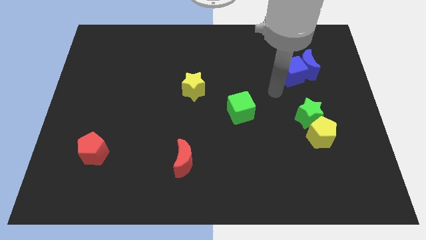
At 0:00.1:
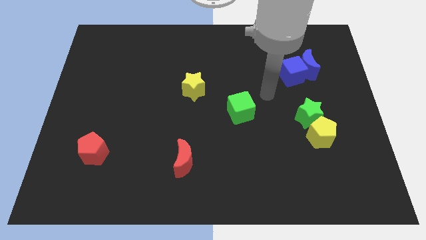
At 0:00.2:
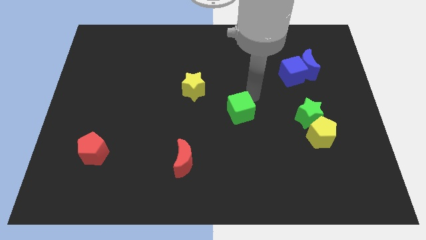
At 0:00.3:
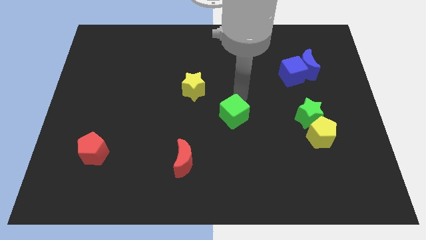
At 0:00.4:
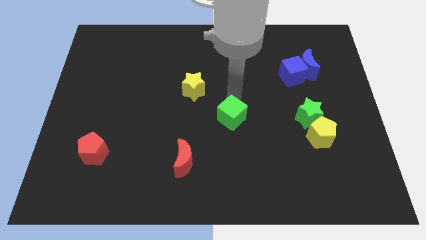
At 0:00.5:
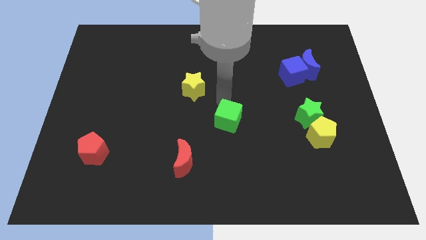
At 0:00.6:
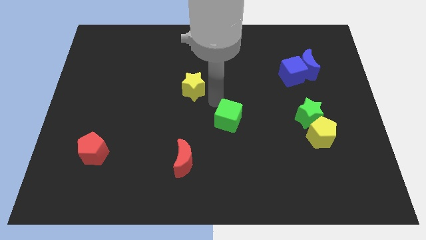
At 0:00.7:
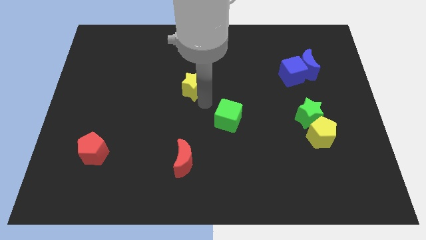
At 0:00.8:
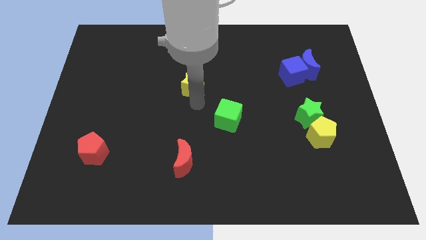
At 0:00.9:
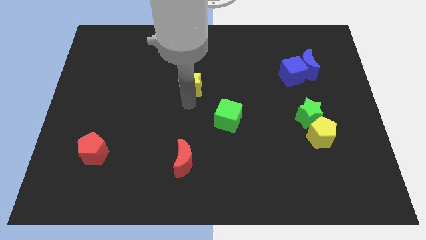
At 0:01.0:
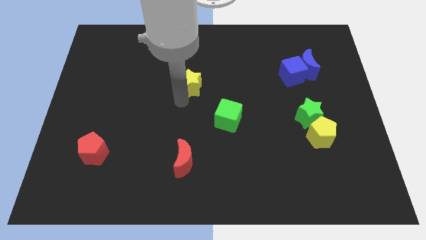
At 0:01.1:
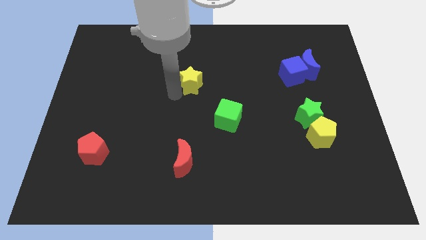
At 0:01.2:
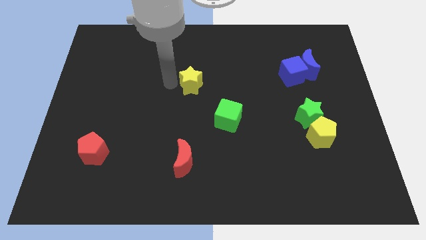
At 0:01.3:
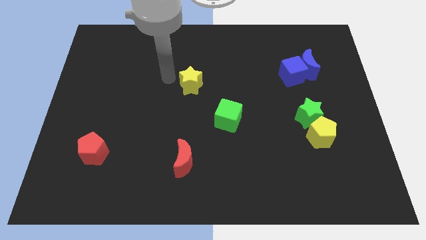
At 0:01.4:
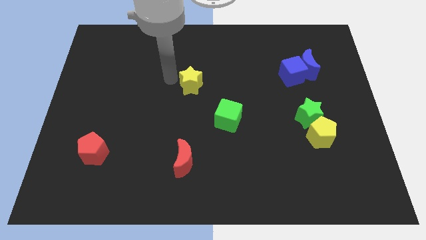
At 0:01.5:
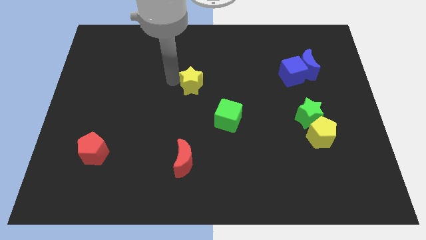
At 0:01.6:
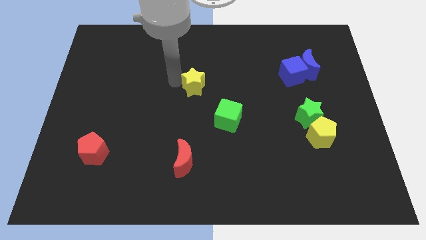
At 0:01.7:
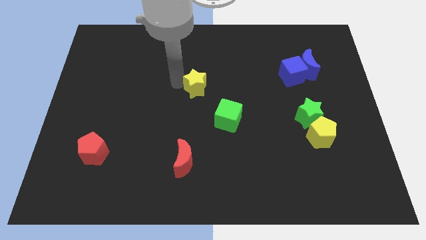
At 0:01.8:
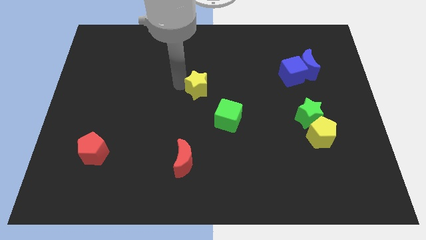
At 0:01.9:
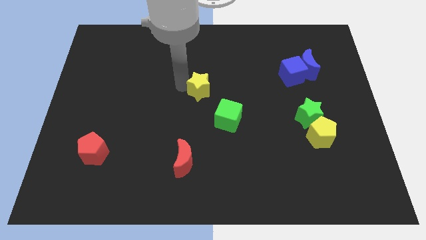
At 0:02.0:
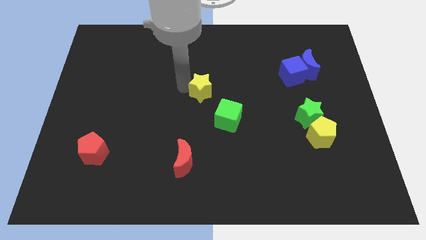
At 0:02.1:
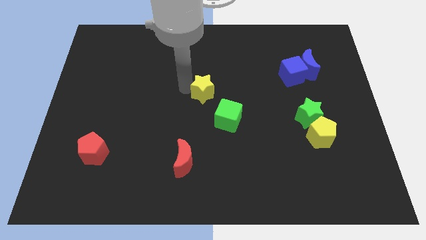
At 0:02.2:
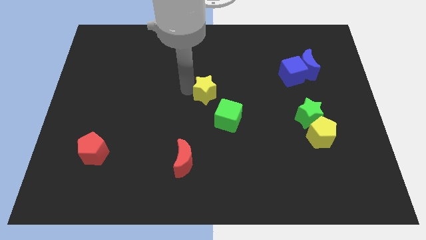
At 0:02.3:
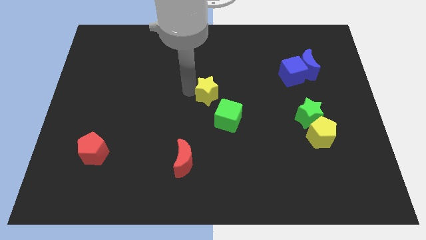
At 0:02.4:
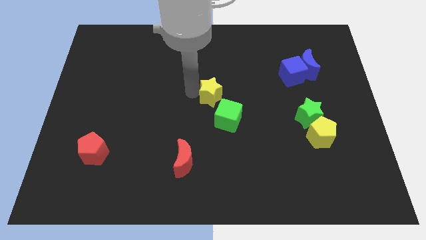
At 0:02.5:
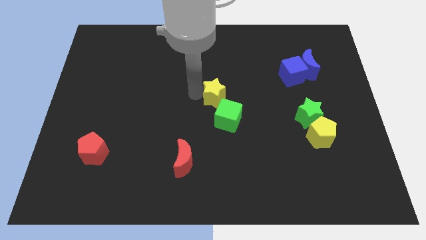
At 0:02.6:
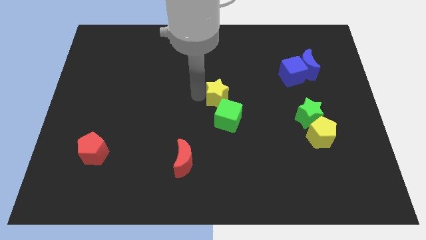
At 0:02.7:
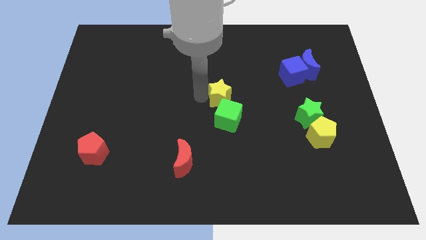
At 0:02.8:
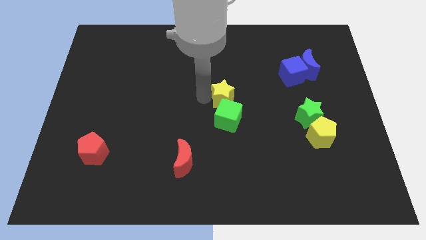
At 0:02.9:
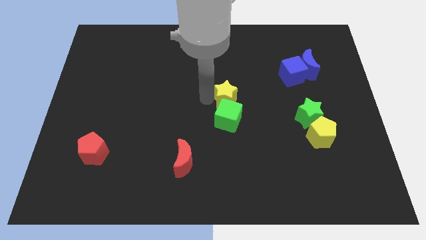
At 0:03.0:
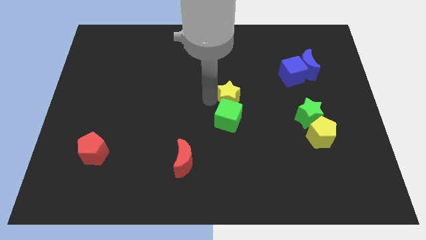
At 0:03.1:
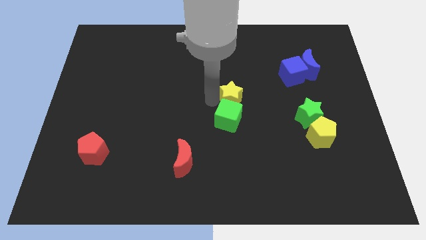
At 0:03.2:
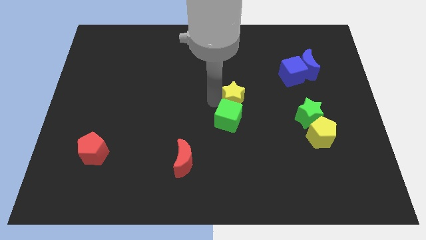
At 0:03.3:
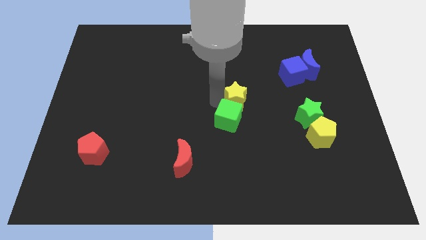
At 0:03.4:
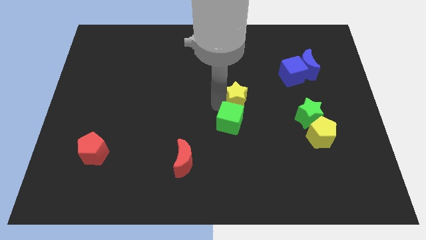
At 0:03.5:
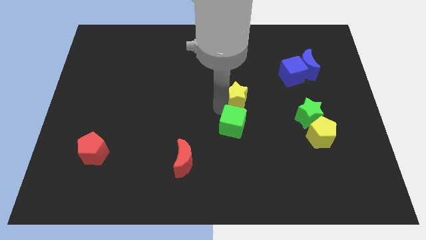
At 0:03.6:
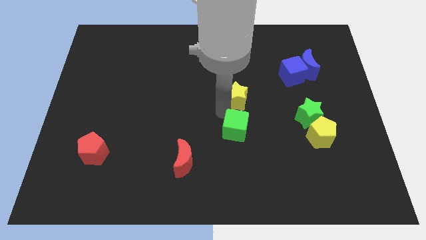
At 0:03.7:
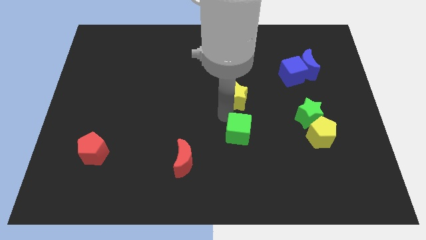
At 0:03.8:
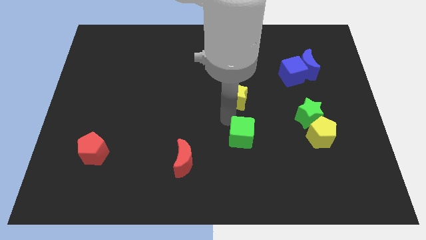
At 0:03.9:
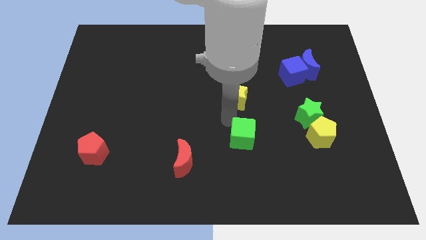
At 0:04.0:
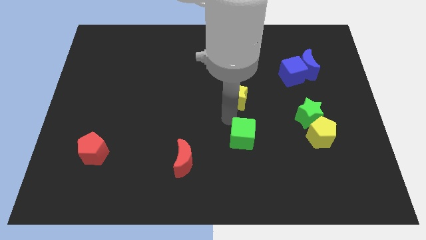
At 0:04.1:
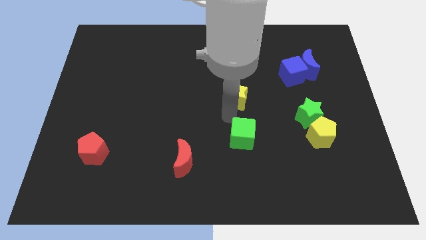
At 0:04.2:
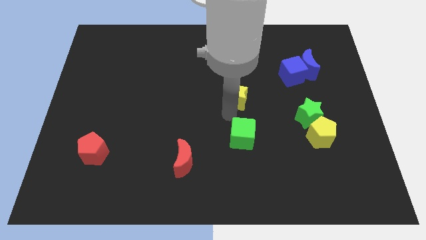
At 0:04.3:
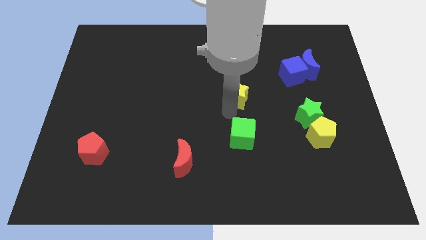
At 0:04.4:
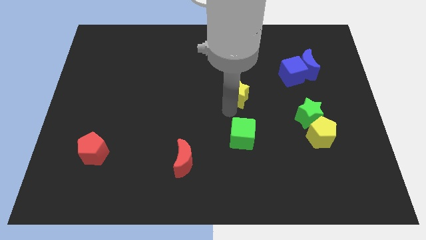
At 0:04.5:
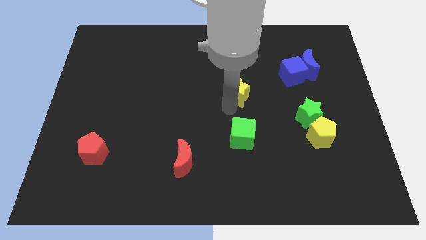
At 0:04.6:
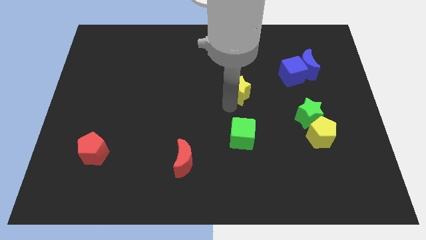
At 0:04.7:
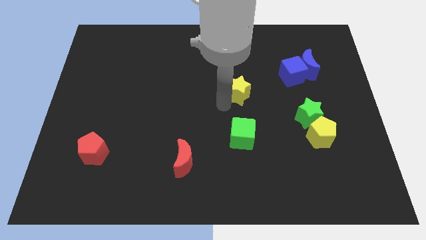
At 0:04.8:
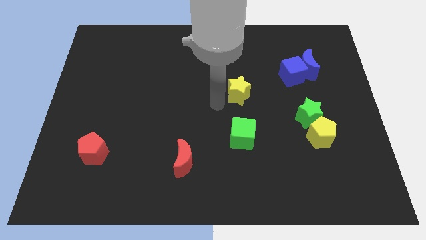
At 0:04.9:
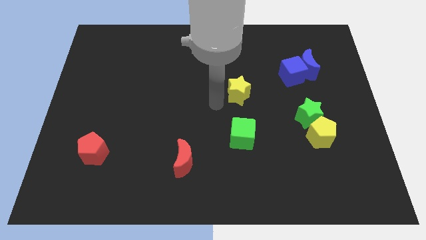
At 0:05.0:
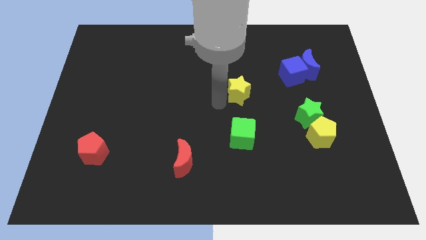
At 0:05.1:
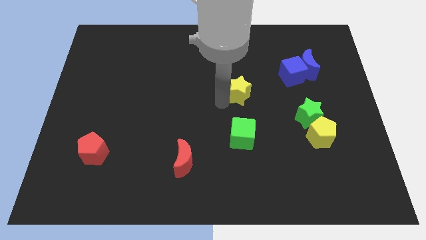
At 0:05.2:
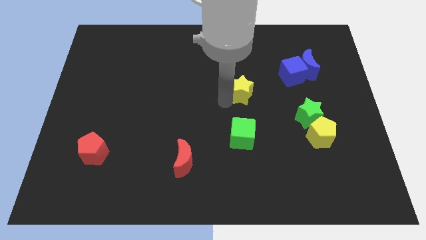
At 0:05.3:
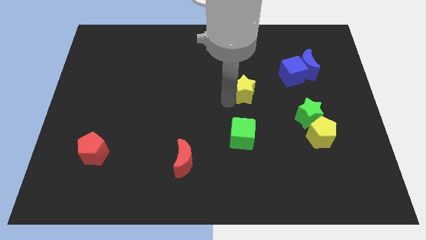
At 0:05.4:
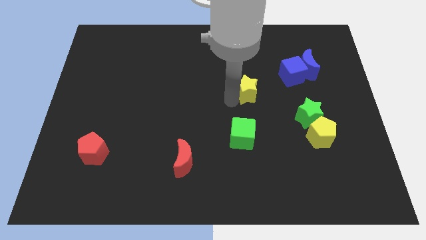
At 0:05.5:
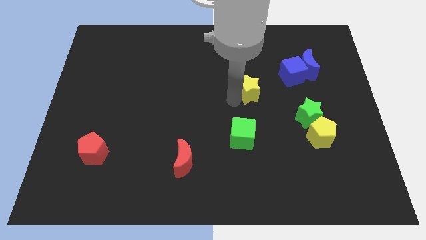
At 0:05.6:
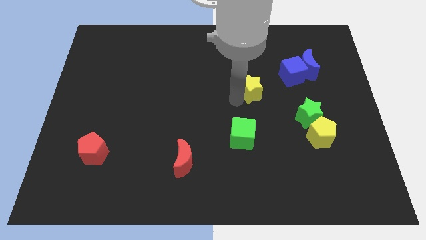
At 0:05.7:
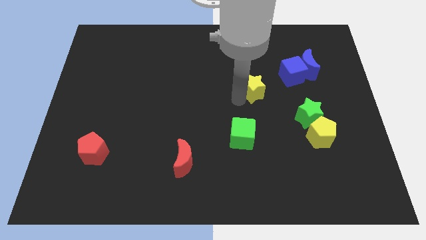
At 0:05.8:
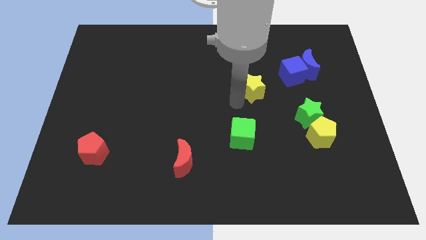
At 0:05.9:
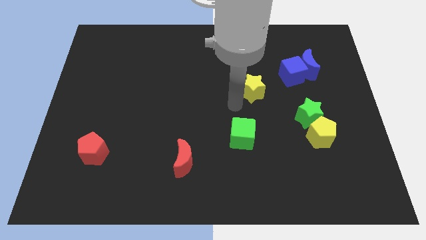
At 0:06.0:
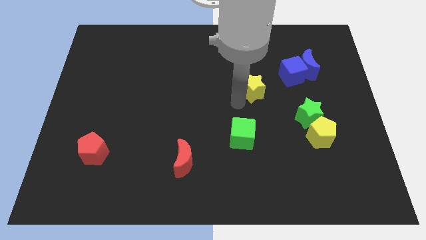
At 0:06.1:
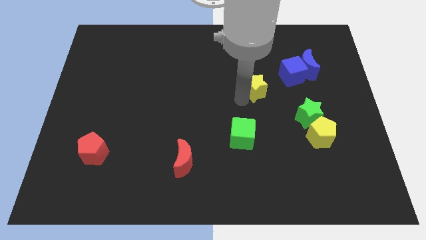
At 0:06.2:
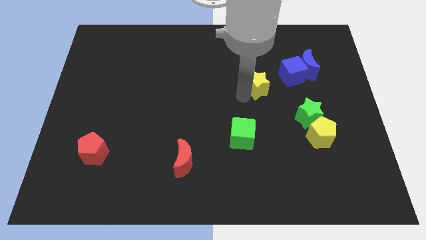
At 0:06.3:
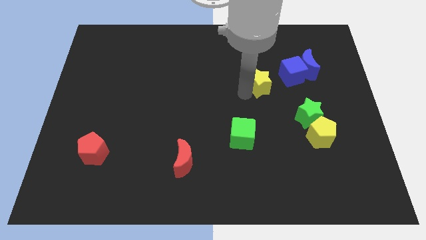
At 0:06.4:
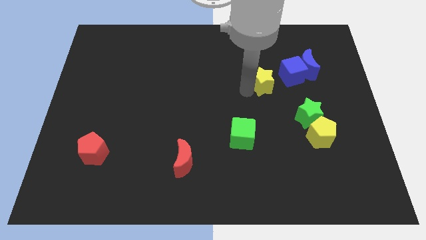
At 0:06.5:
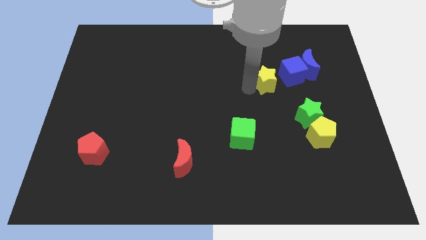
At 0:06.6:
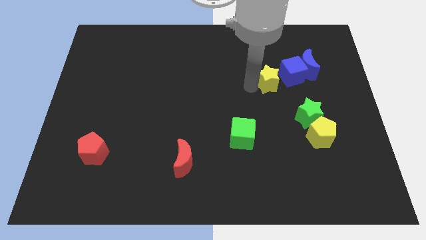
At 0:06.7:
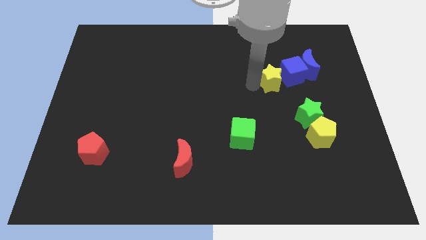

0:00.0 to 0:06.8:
move the yellow star towards the blue cube

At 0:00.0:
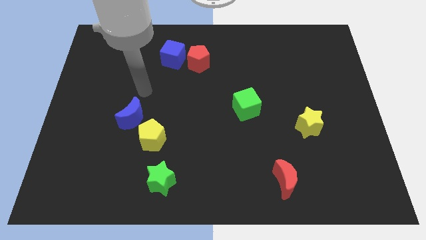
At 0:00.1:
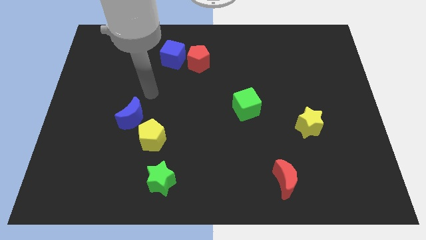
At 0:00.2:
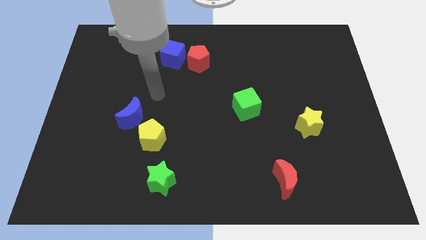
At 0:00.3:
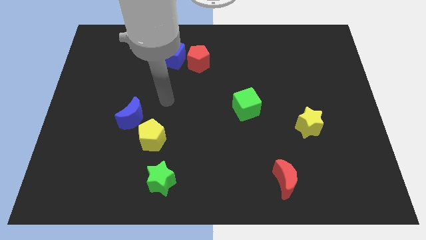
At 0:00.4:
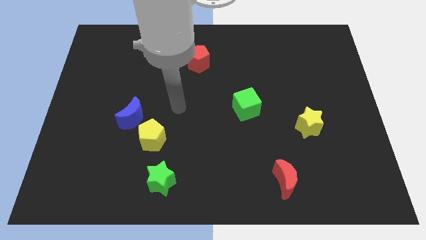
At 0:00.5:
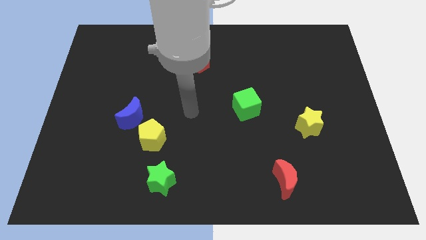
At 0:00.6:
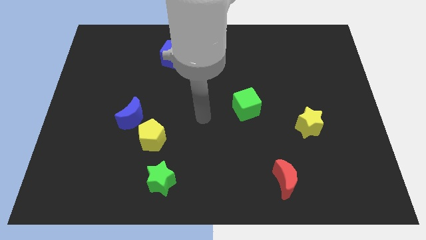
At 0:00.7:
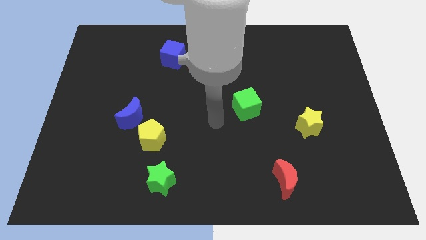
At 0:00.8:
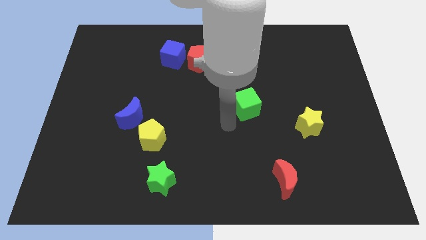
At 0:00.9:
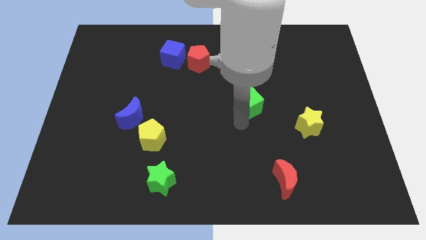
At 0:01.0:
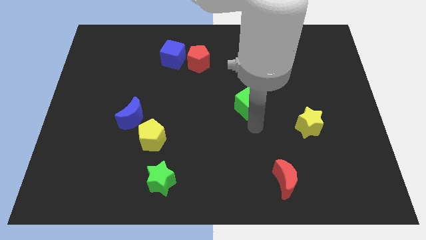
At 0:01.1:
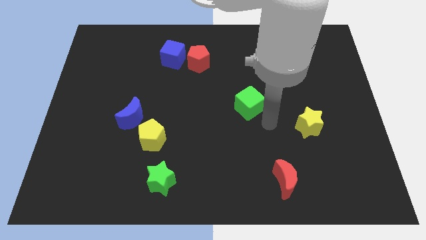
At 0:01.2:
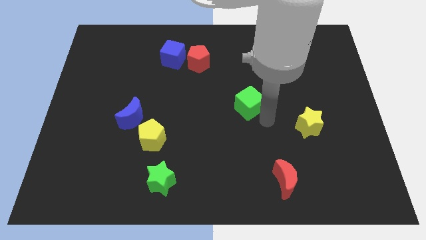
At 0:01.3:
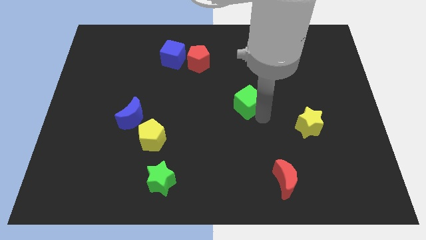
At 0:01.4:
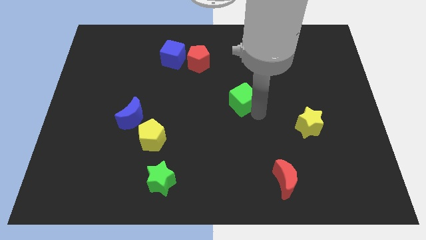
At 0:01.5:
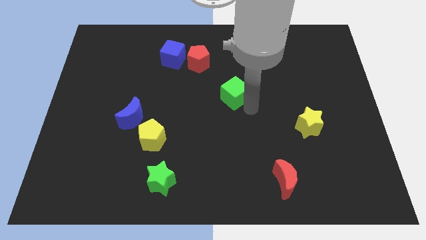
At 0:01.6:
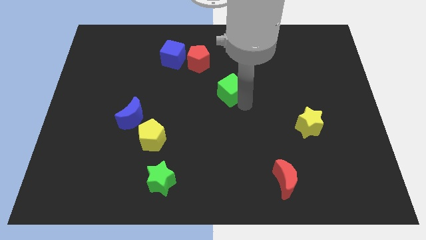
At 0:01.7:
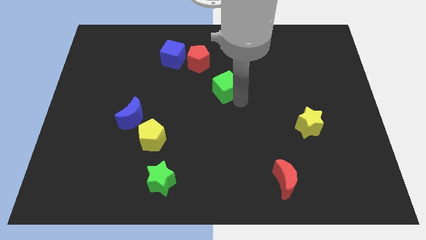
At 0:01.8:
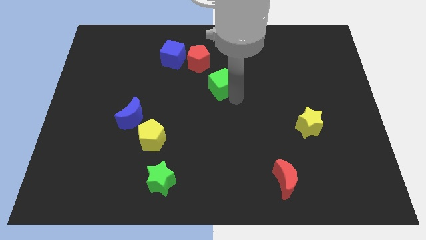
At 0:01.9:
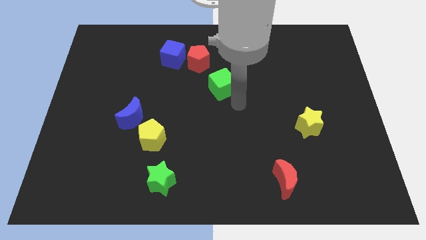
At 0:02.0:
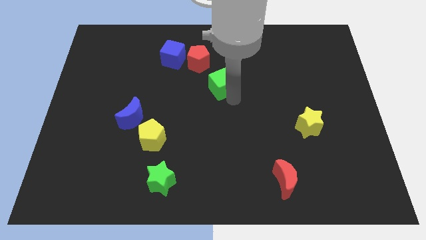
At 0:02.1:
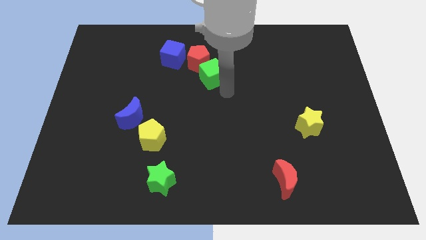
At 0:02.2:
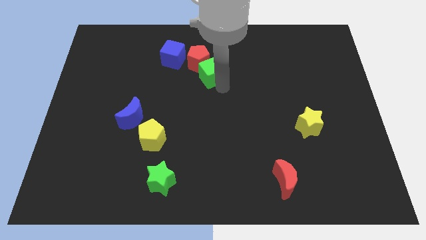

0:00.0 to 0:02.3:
push the green cube to the red pentagon
